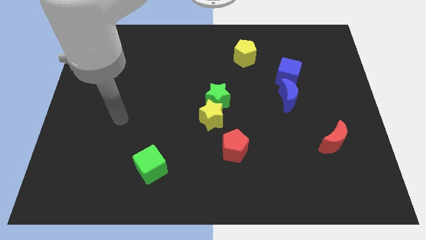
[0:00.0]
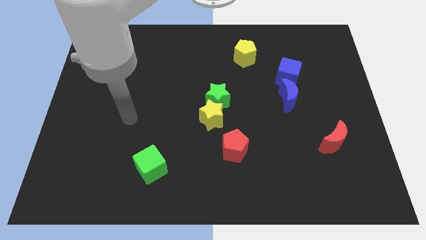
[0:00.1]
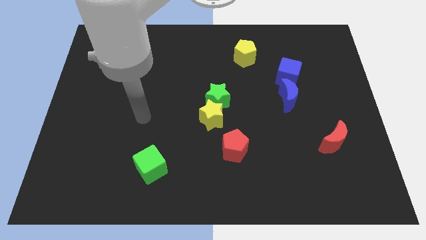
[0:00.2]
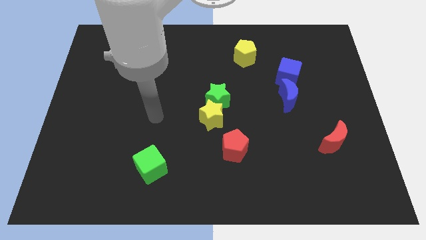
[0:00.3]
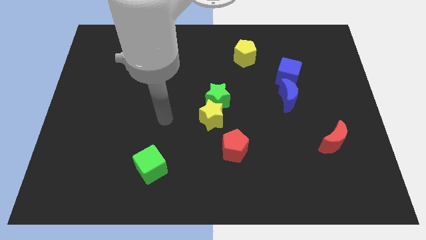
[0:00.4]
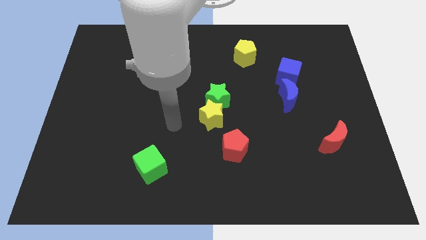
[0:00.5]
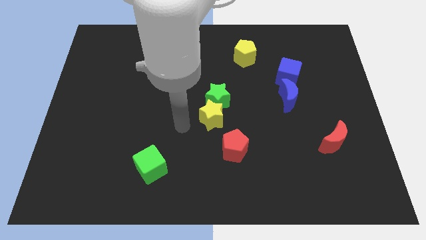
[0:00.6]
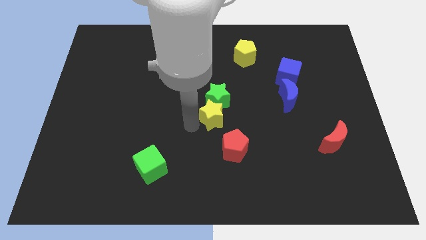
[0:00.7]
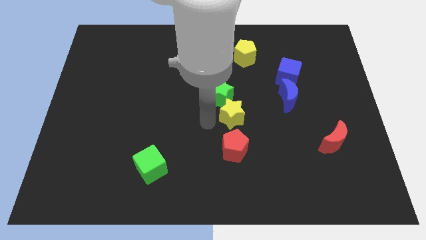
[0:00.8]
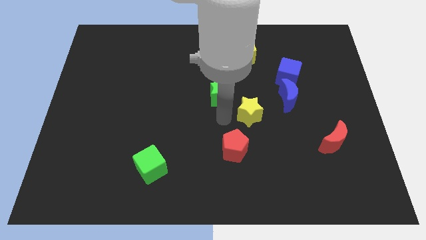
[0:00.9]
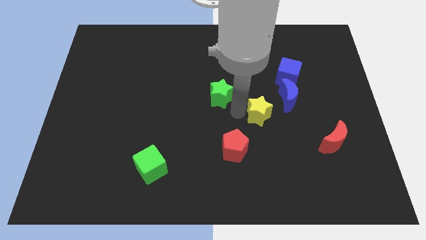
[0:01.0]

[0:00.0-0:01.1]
pull the green star apart from the yellow star

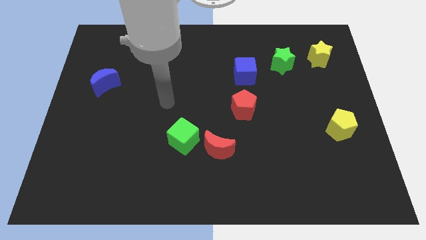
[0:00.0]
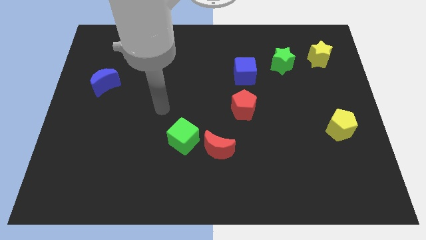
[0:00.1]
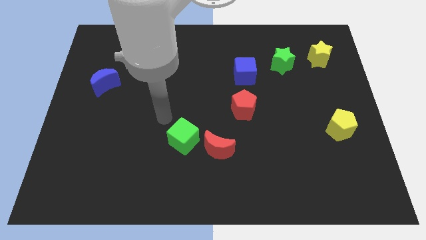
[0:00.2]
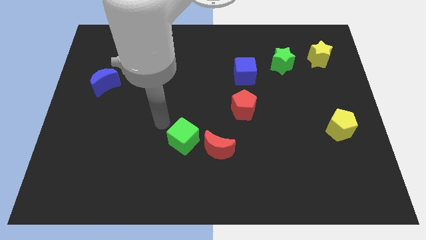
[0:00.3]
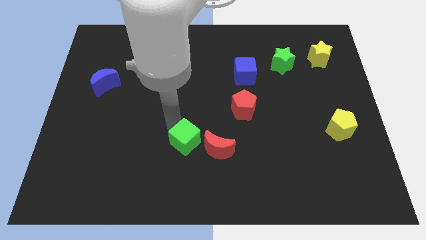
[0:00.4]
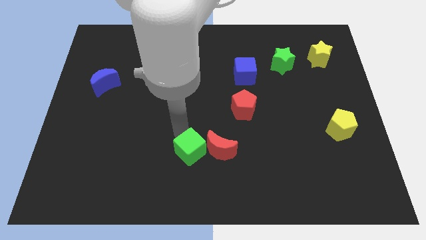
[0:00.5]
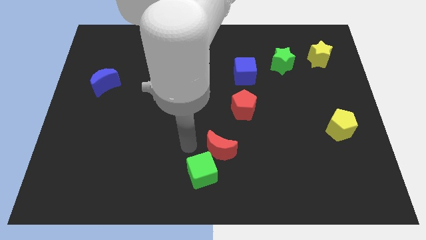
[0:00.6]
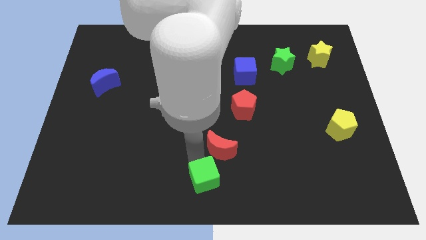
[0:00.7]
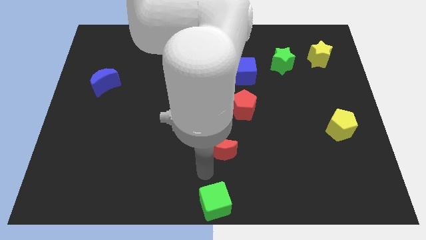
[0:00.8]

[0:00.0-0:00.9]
separate the red moon from the green cube

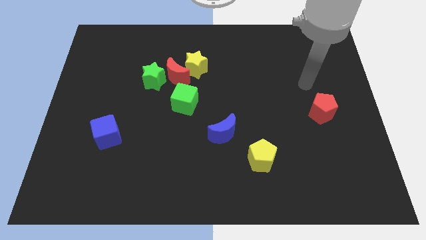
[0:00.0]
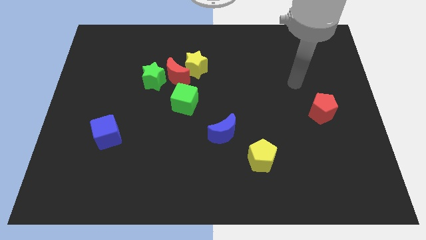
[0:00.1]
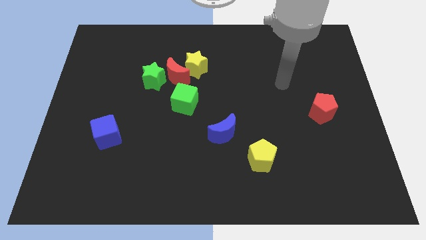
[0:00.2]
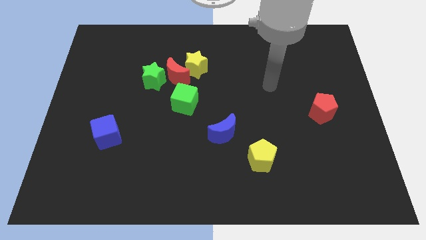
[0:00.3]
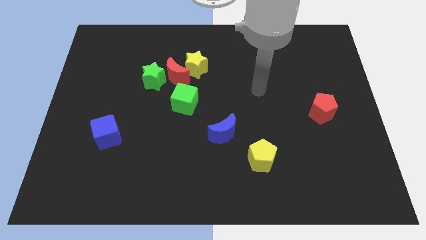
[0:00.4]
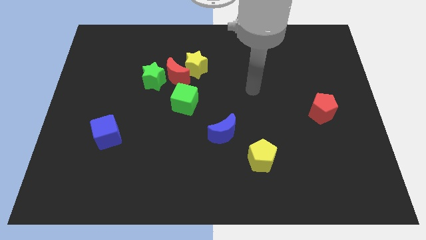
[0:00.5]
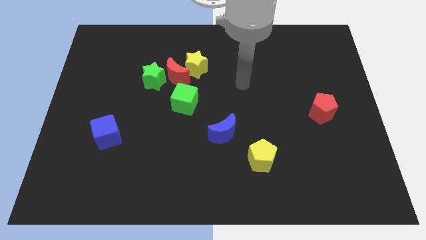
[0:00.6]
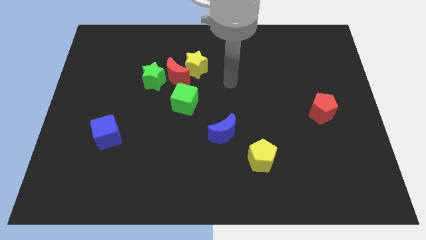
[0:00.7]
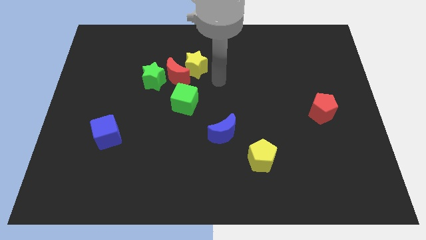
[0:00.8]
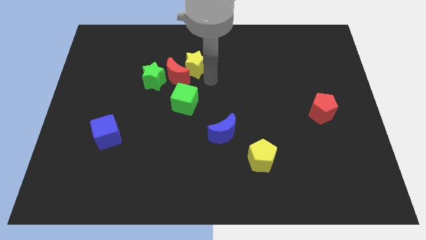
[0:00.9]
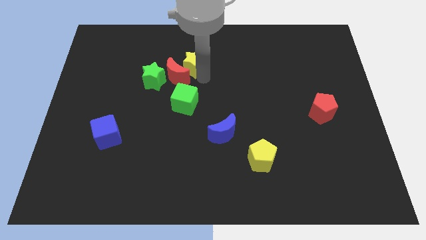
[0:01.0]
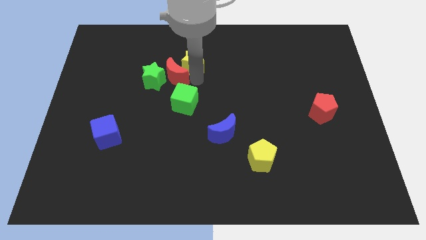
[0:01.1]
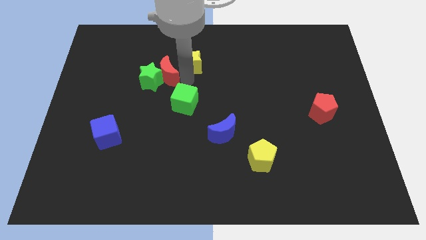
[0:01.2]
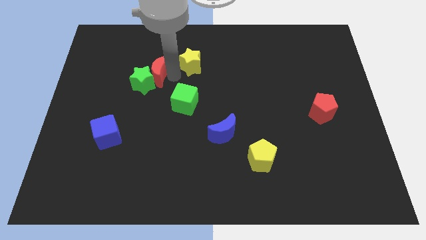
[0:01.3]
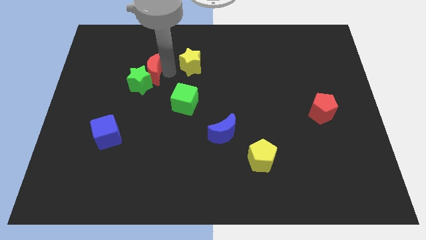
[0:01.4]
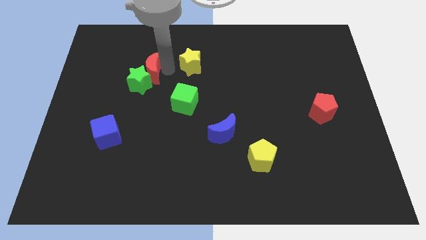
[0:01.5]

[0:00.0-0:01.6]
pull the yellow star apart from the red moon

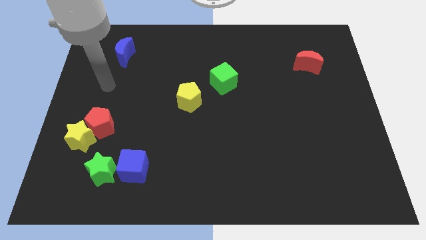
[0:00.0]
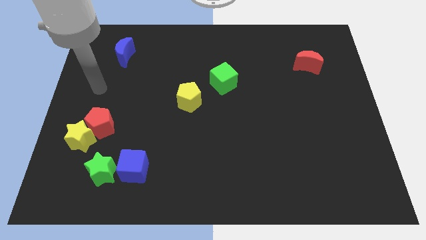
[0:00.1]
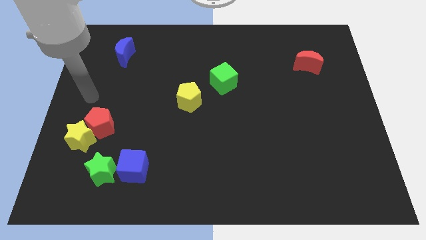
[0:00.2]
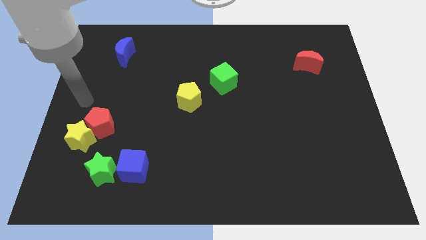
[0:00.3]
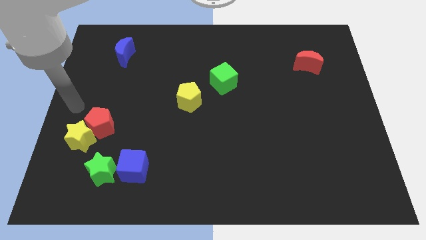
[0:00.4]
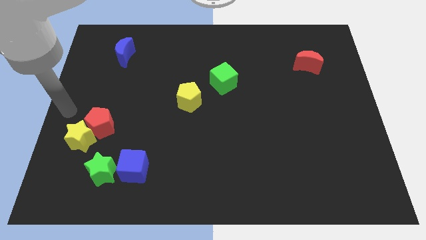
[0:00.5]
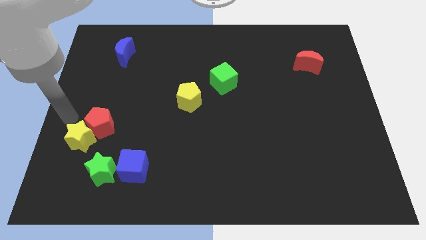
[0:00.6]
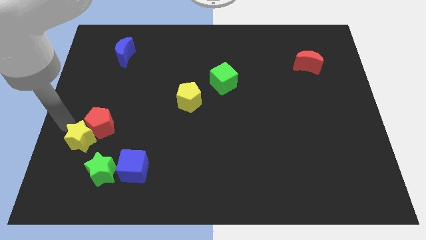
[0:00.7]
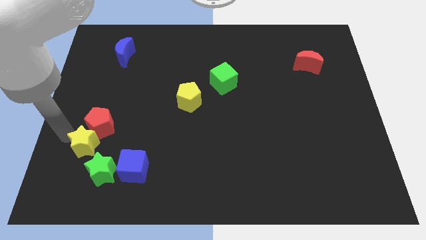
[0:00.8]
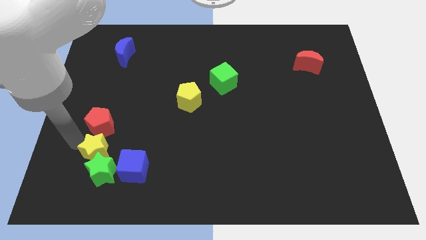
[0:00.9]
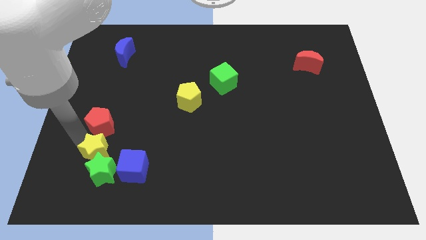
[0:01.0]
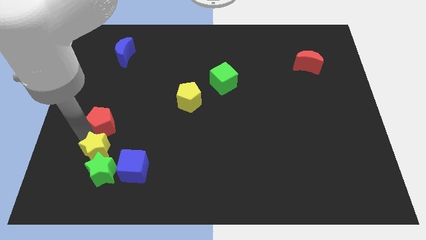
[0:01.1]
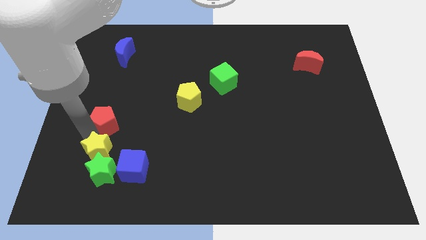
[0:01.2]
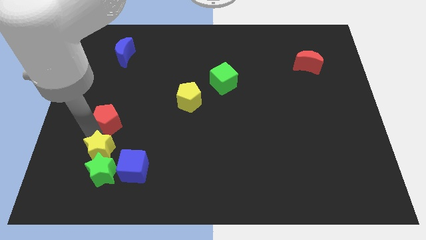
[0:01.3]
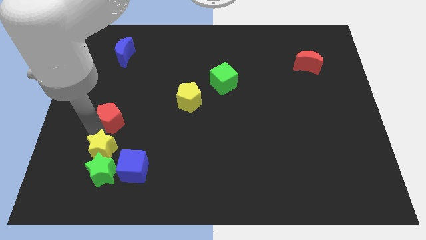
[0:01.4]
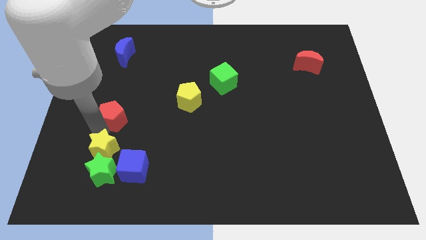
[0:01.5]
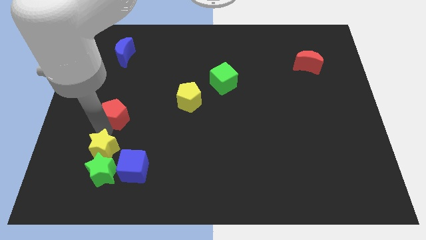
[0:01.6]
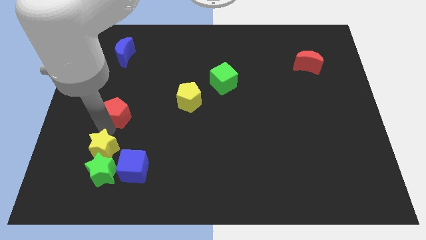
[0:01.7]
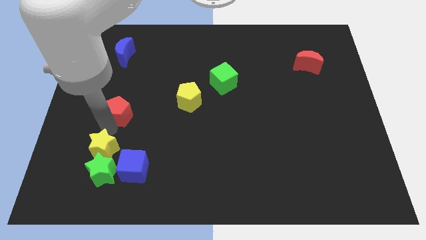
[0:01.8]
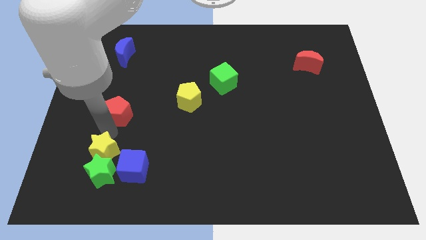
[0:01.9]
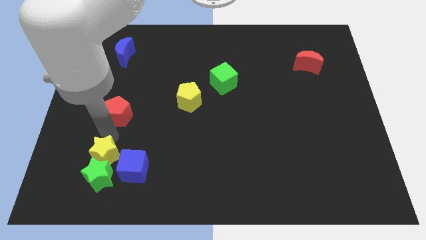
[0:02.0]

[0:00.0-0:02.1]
separate the red pentagon from the yellow star

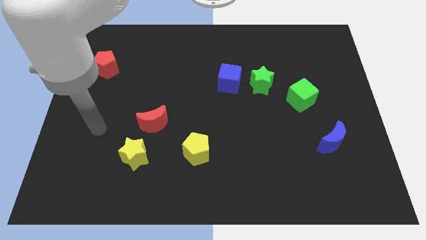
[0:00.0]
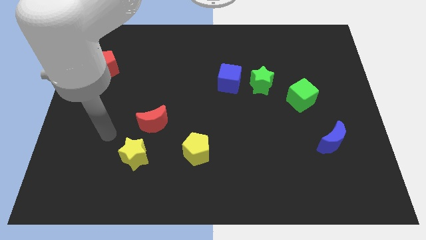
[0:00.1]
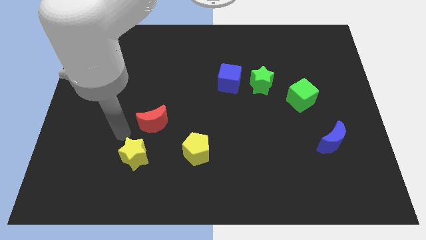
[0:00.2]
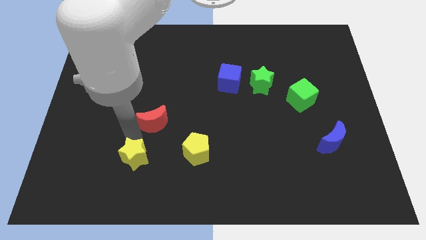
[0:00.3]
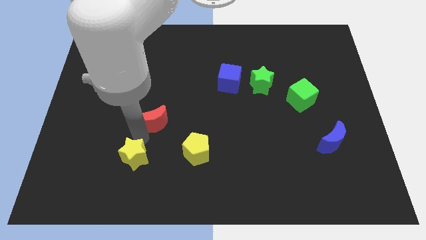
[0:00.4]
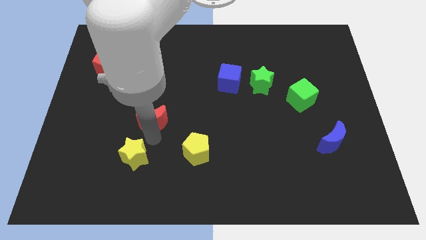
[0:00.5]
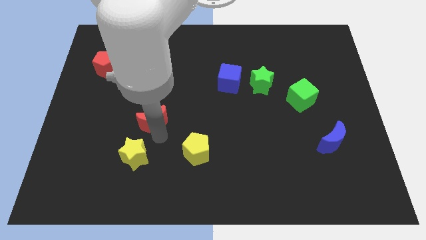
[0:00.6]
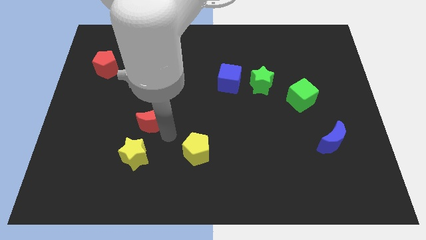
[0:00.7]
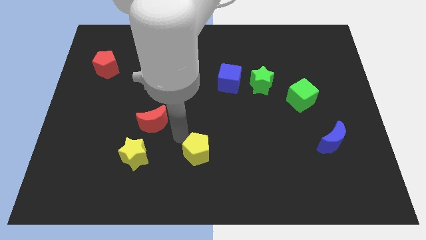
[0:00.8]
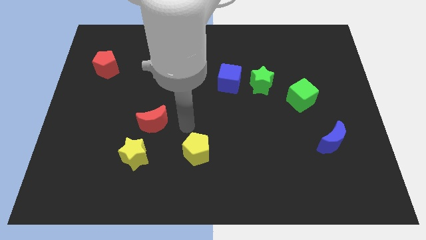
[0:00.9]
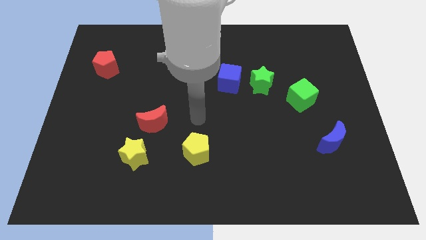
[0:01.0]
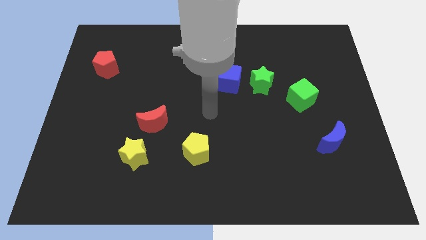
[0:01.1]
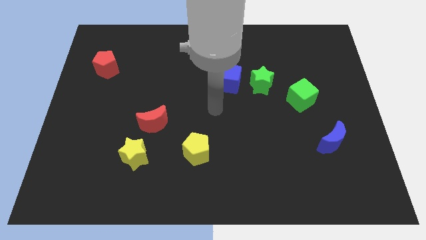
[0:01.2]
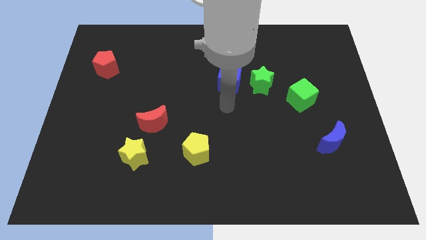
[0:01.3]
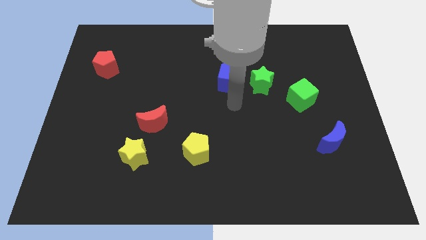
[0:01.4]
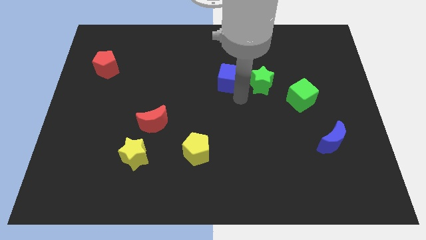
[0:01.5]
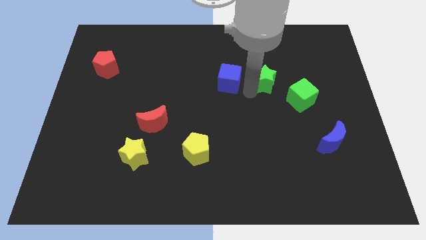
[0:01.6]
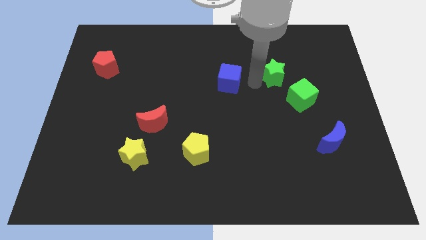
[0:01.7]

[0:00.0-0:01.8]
separate the blue cube from the green star

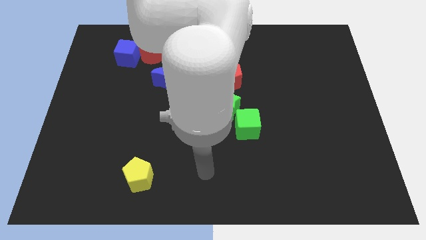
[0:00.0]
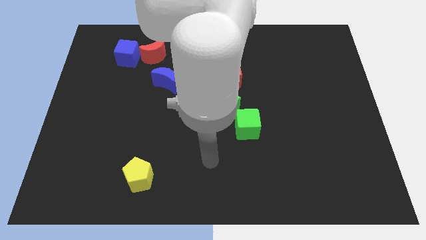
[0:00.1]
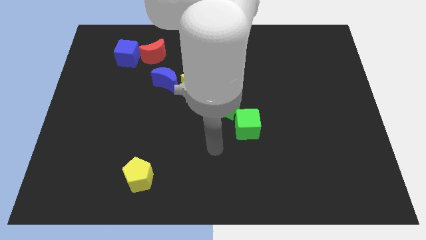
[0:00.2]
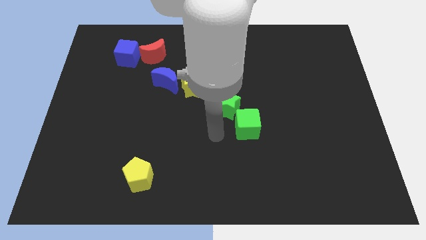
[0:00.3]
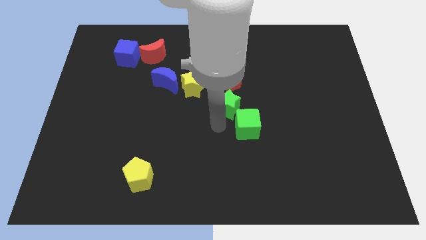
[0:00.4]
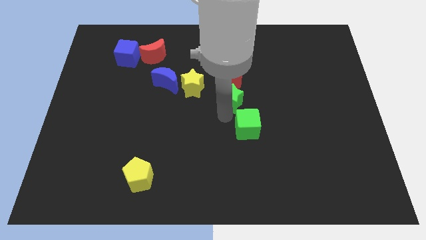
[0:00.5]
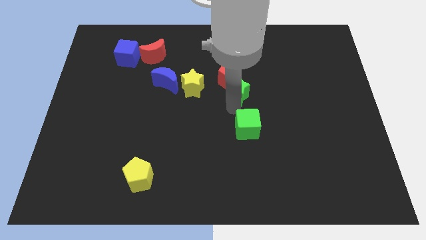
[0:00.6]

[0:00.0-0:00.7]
move the green cube away from the green star

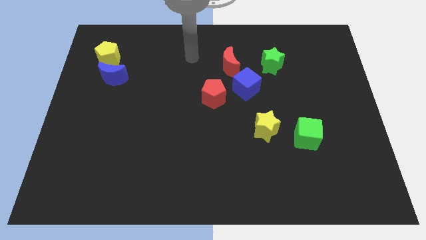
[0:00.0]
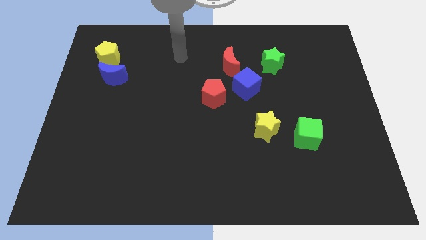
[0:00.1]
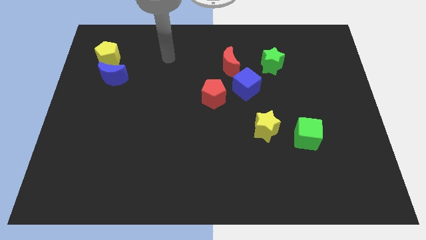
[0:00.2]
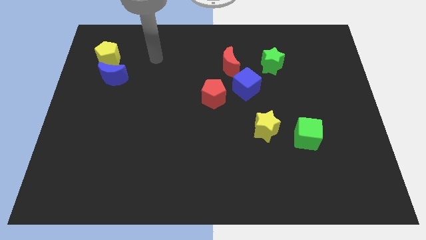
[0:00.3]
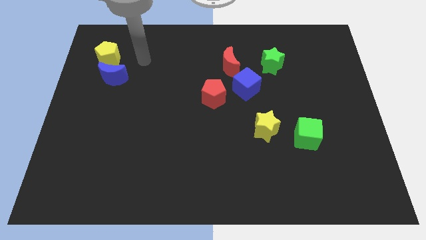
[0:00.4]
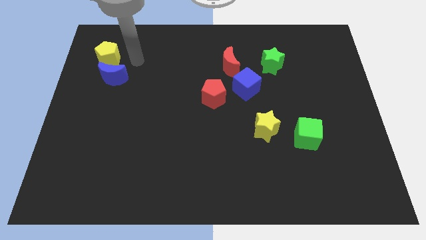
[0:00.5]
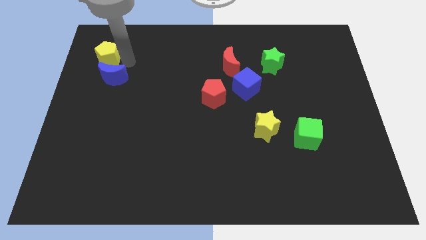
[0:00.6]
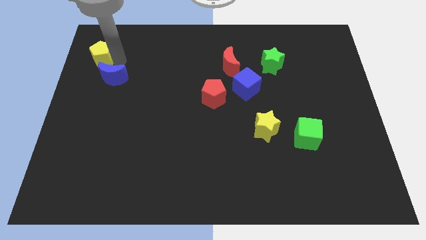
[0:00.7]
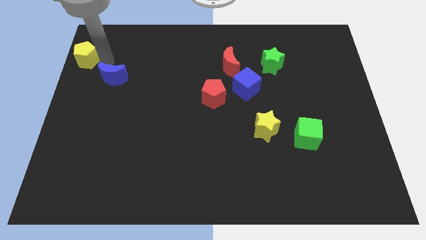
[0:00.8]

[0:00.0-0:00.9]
separate the blue moon from the yellow pentagon

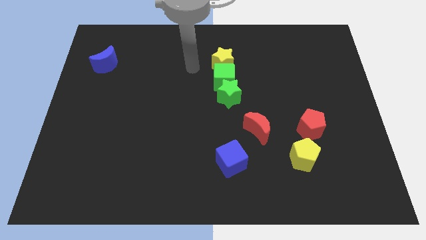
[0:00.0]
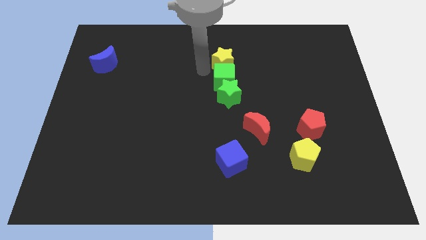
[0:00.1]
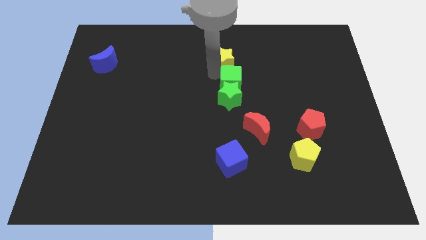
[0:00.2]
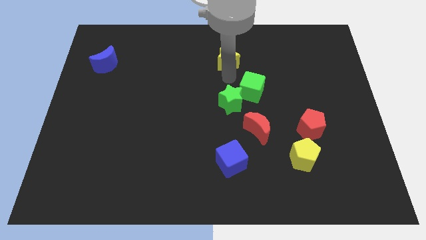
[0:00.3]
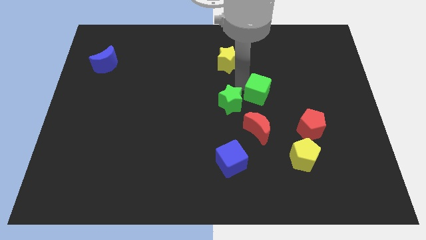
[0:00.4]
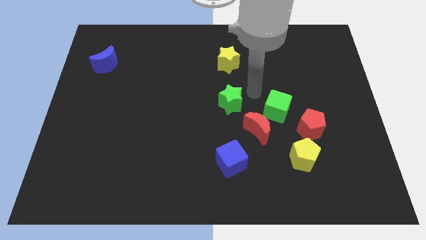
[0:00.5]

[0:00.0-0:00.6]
separate the green star from the green cube
